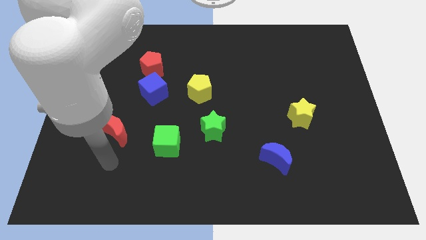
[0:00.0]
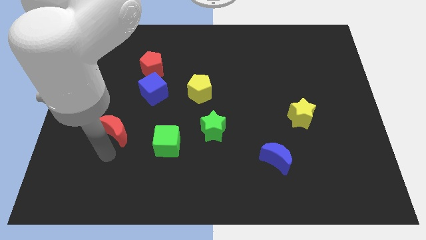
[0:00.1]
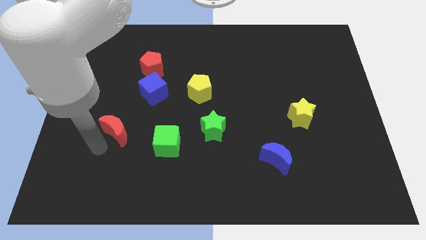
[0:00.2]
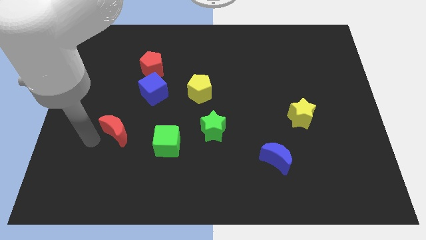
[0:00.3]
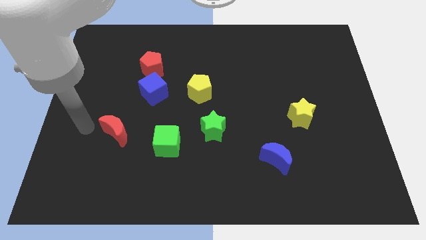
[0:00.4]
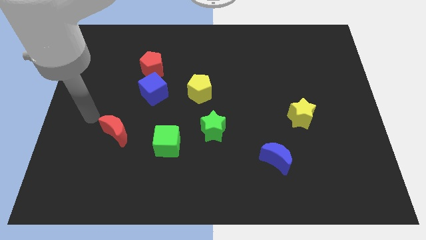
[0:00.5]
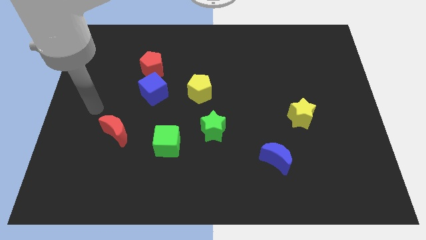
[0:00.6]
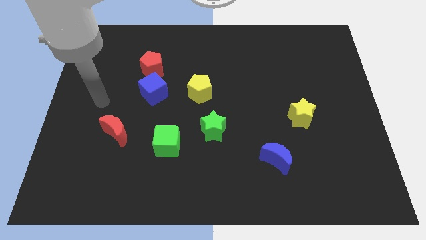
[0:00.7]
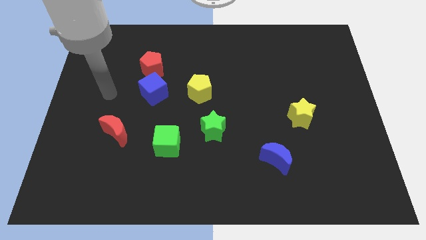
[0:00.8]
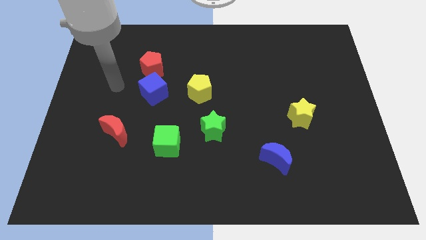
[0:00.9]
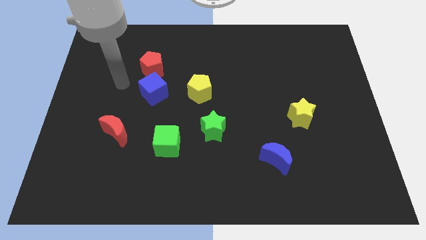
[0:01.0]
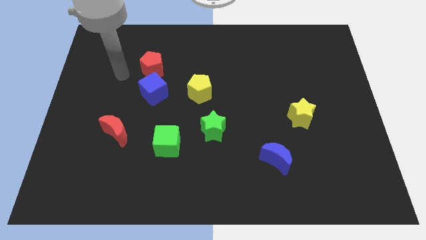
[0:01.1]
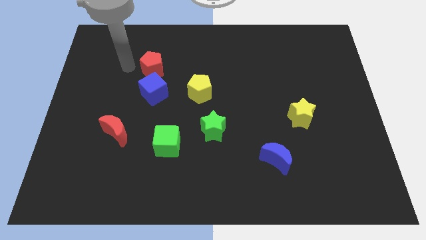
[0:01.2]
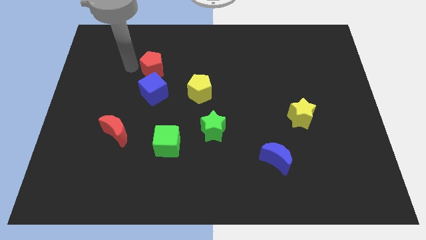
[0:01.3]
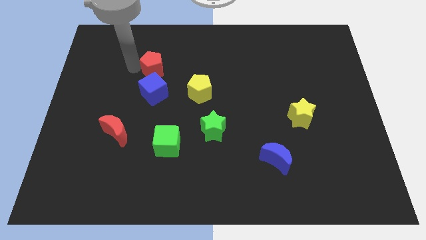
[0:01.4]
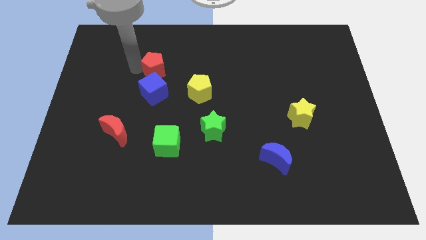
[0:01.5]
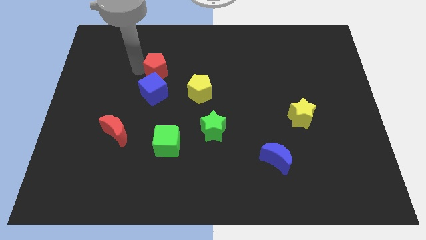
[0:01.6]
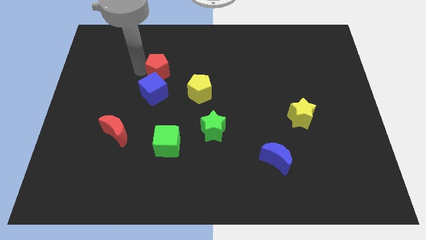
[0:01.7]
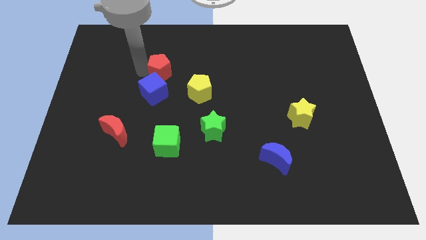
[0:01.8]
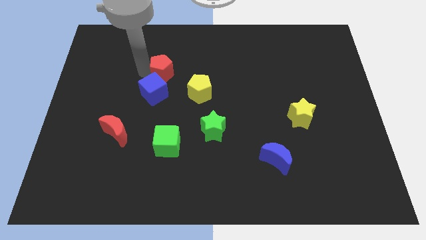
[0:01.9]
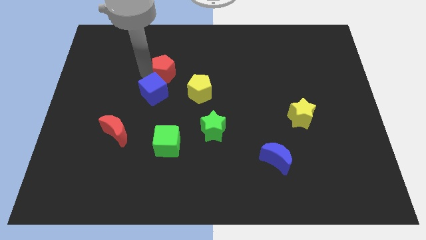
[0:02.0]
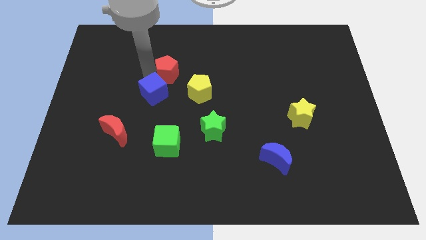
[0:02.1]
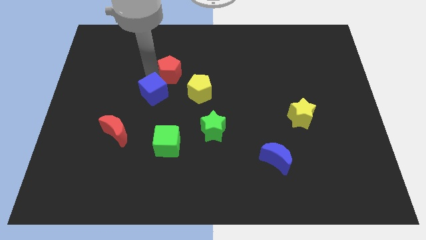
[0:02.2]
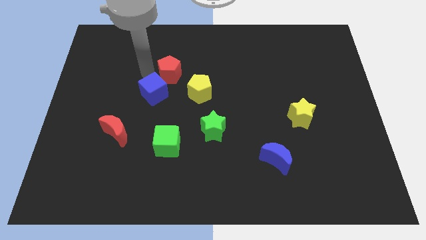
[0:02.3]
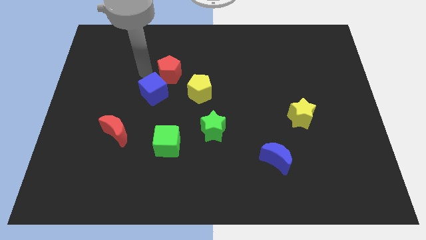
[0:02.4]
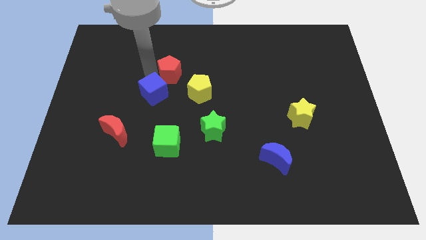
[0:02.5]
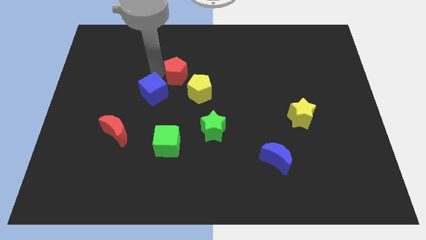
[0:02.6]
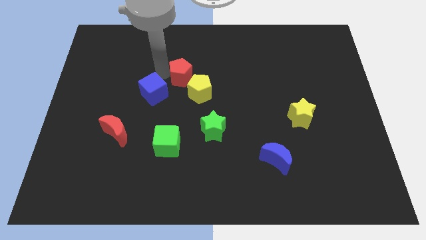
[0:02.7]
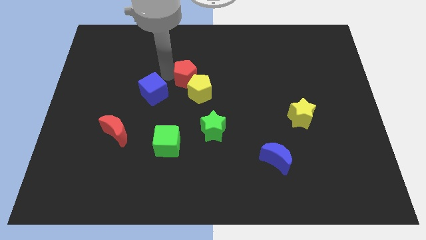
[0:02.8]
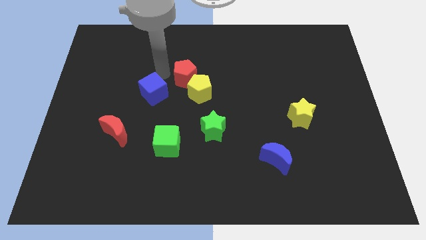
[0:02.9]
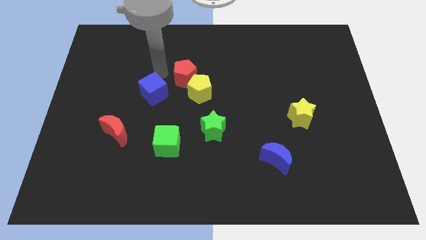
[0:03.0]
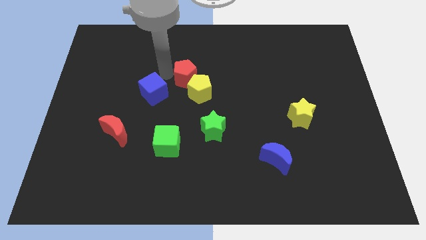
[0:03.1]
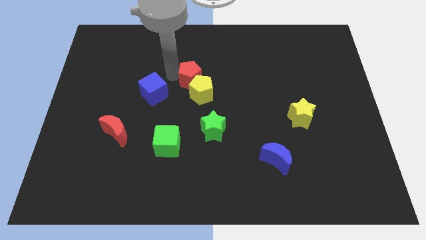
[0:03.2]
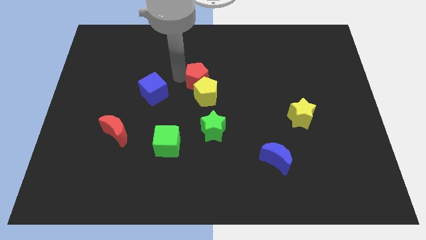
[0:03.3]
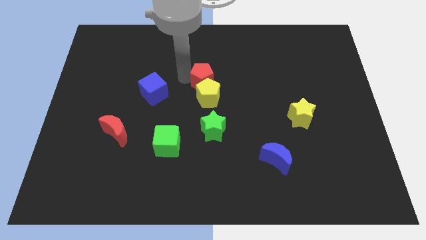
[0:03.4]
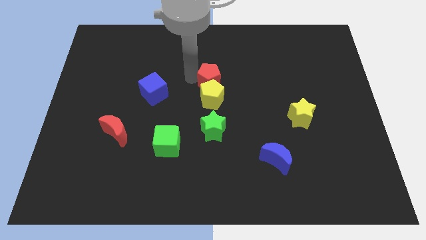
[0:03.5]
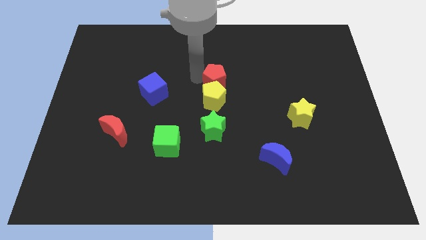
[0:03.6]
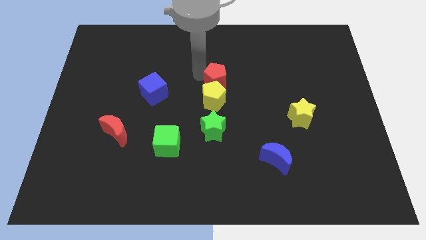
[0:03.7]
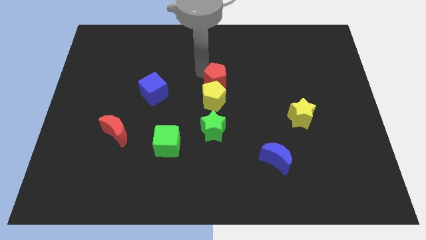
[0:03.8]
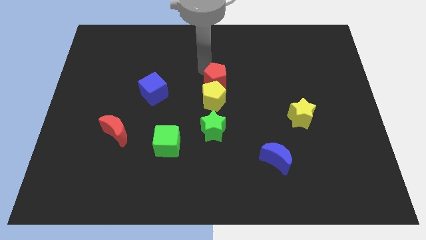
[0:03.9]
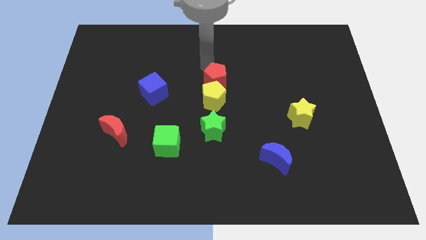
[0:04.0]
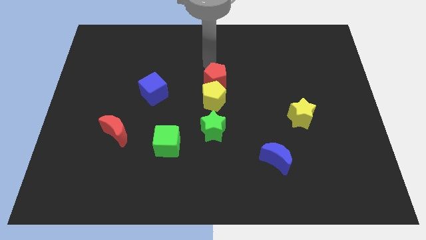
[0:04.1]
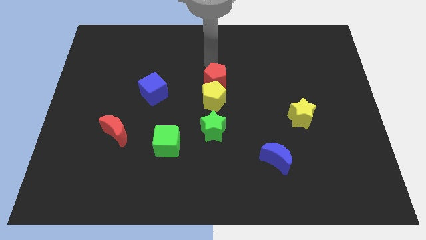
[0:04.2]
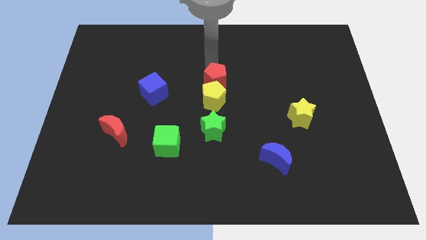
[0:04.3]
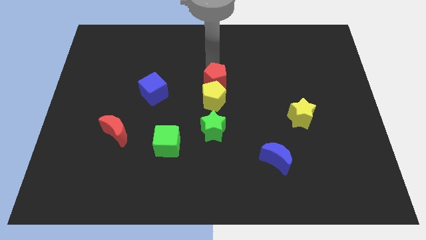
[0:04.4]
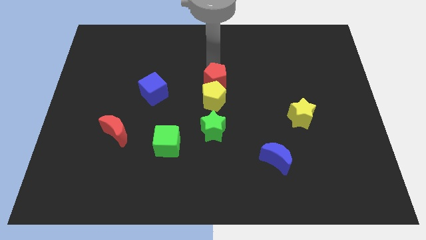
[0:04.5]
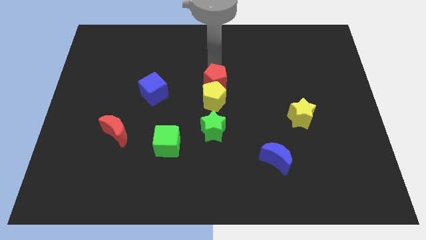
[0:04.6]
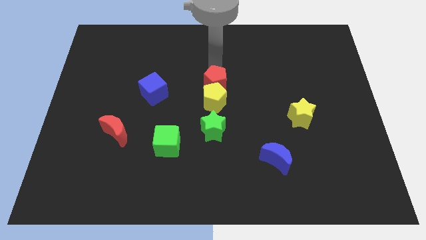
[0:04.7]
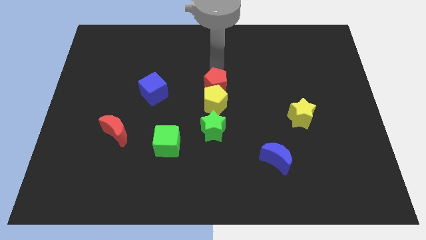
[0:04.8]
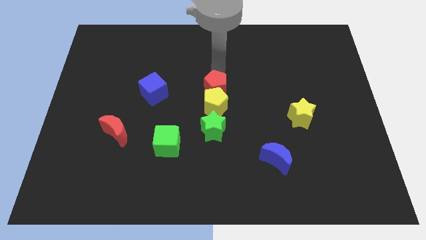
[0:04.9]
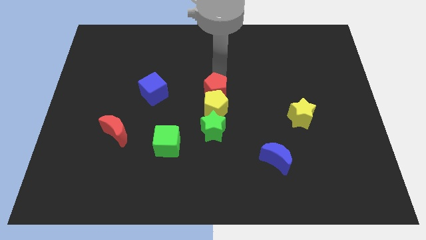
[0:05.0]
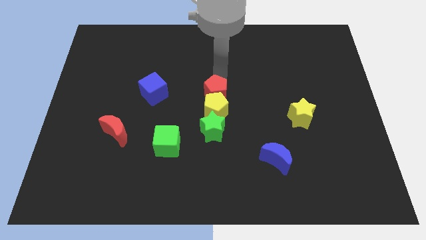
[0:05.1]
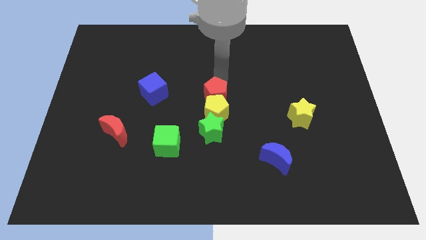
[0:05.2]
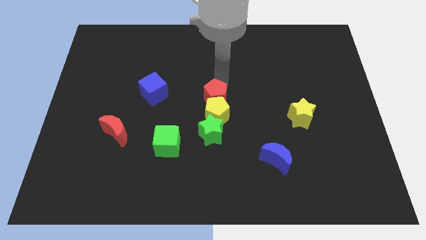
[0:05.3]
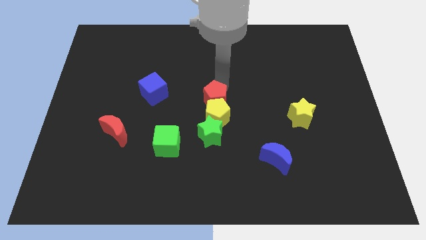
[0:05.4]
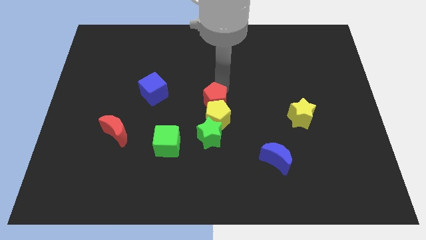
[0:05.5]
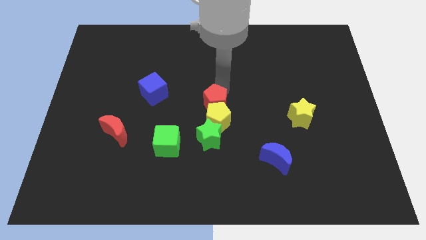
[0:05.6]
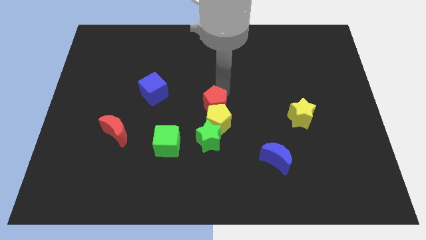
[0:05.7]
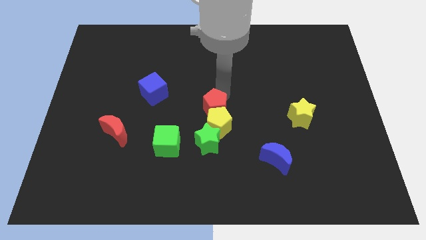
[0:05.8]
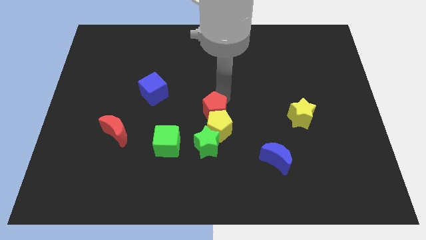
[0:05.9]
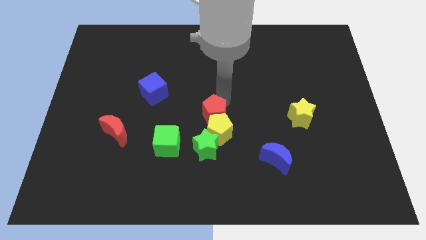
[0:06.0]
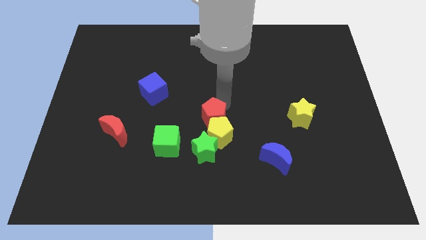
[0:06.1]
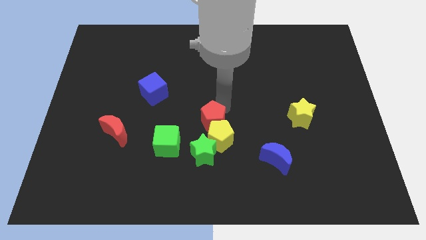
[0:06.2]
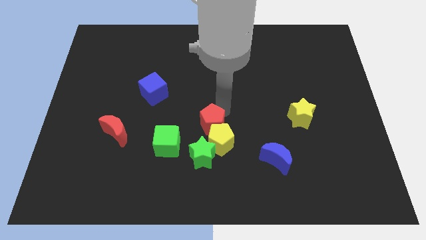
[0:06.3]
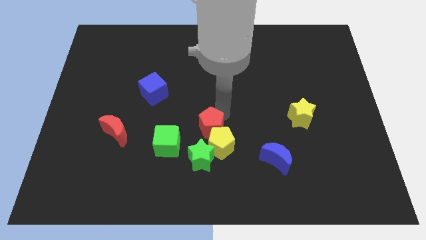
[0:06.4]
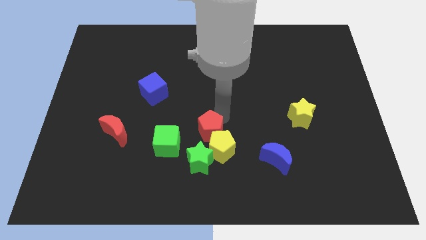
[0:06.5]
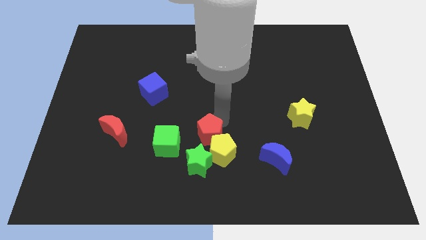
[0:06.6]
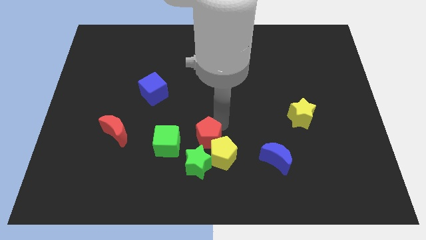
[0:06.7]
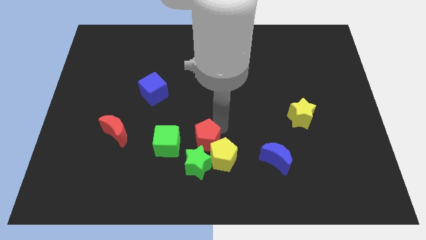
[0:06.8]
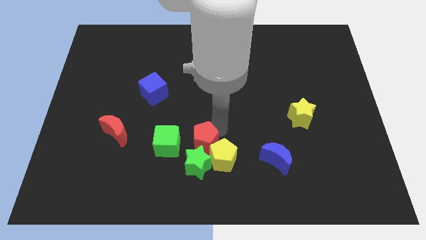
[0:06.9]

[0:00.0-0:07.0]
move the red pentagon towards the green star

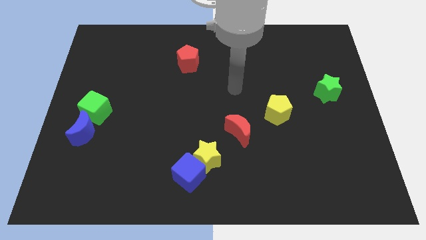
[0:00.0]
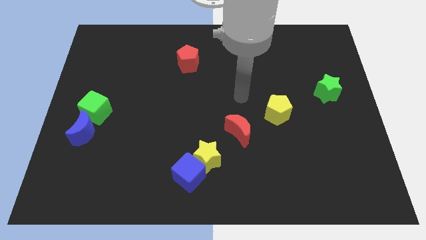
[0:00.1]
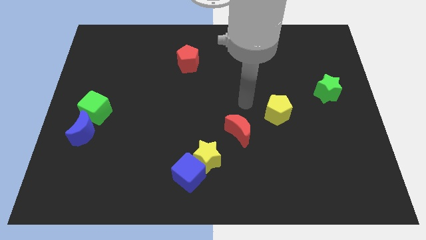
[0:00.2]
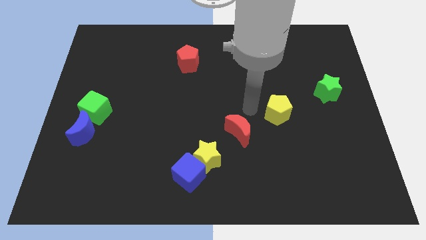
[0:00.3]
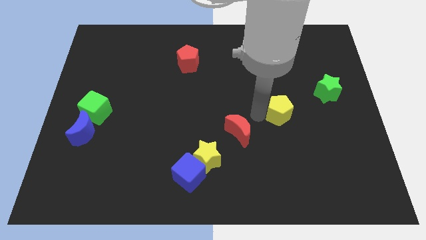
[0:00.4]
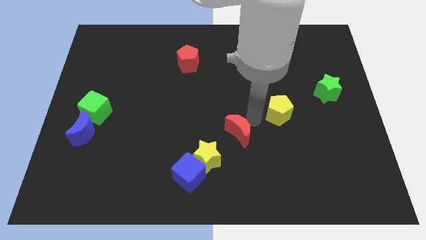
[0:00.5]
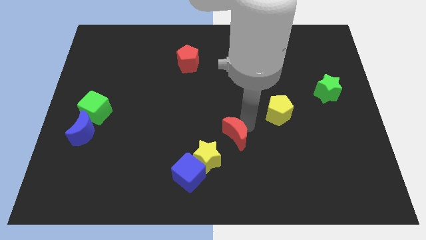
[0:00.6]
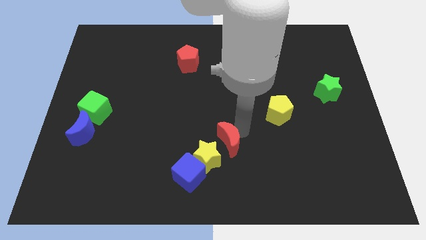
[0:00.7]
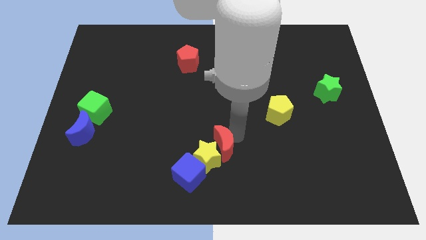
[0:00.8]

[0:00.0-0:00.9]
slide the red moon to the yellow star

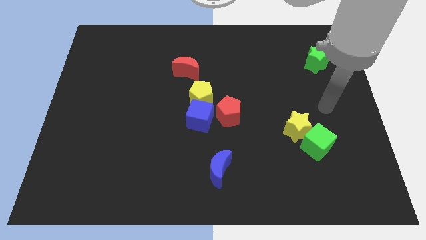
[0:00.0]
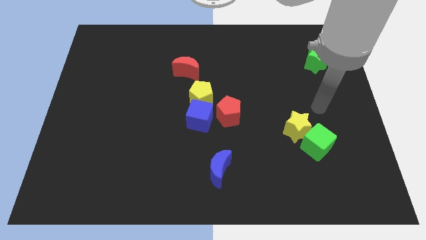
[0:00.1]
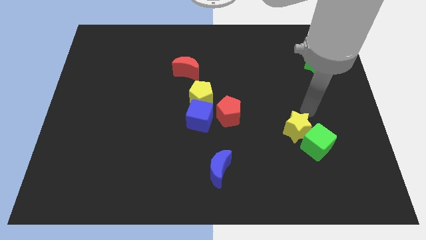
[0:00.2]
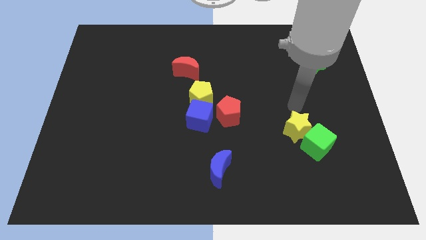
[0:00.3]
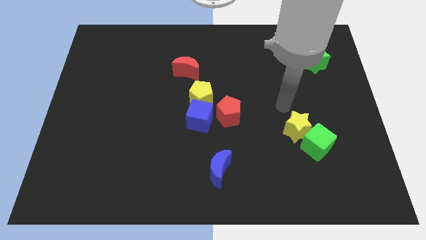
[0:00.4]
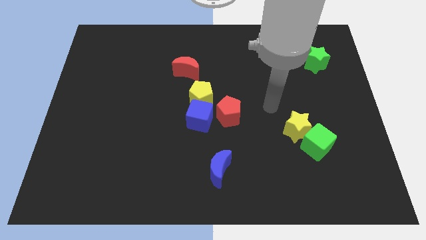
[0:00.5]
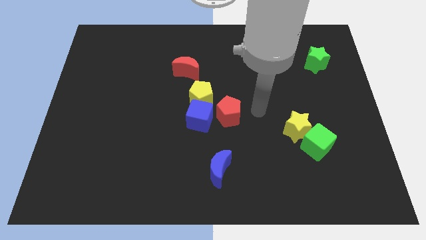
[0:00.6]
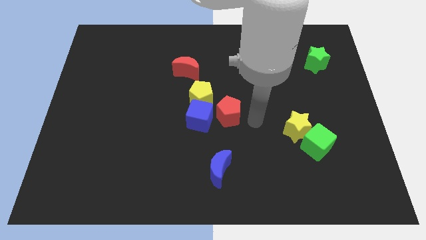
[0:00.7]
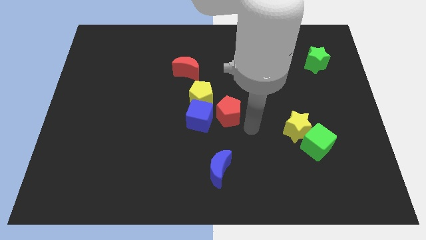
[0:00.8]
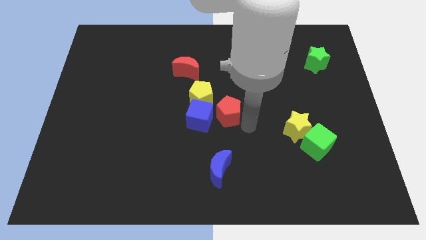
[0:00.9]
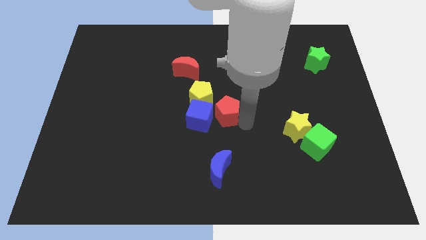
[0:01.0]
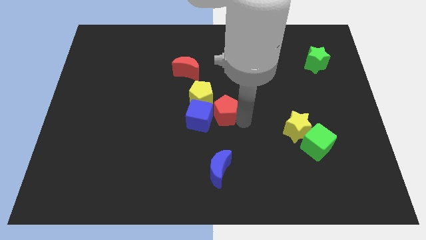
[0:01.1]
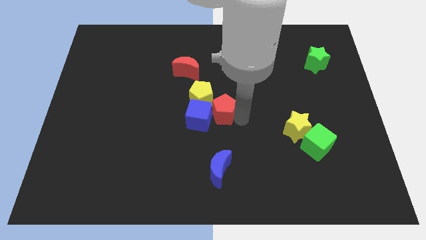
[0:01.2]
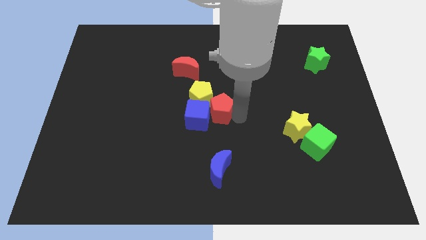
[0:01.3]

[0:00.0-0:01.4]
put the red pentagon towards the yellow pentagon
